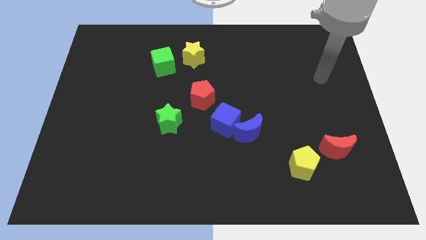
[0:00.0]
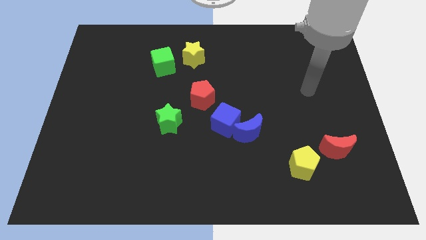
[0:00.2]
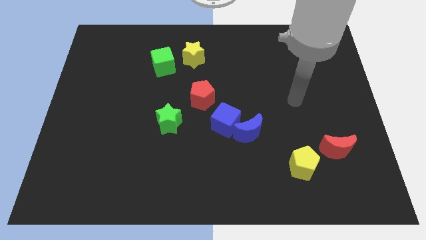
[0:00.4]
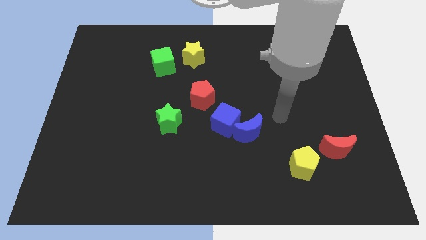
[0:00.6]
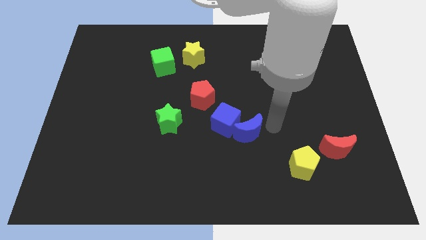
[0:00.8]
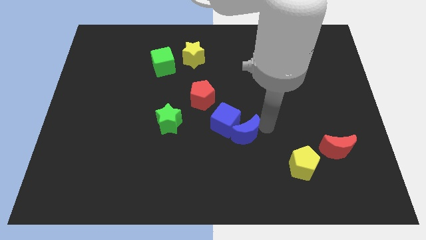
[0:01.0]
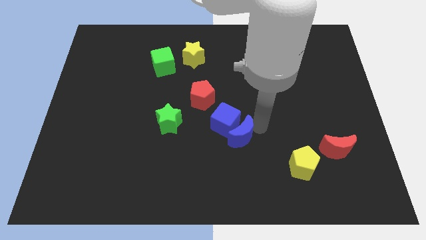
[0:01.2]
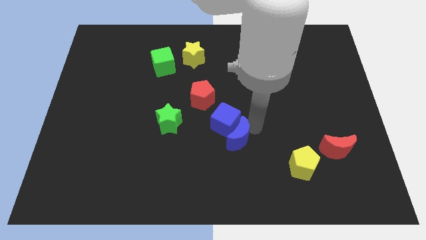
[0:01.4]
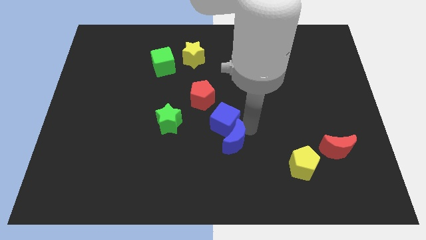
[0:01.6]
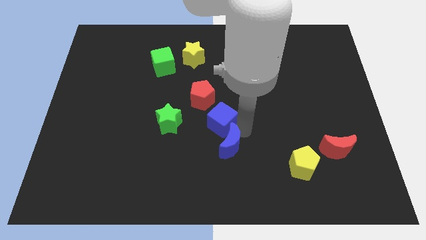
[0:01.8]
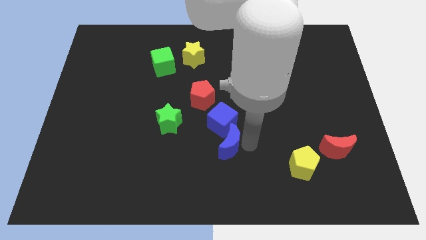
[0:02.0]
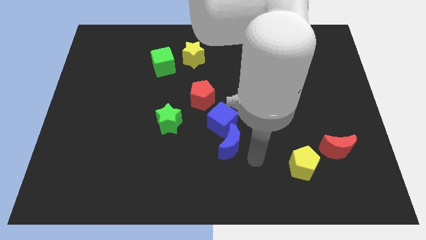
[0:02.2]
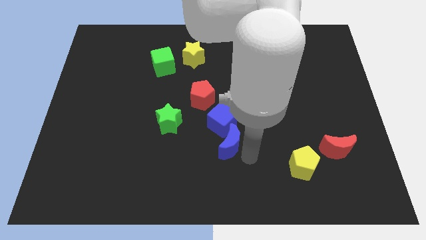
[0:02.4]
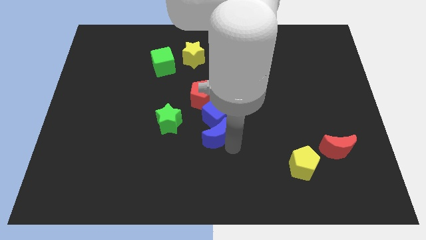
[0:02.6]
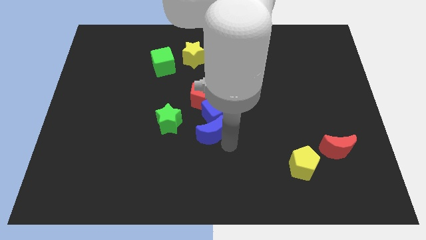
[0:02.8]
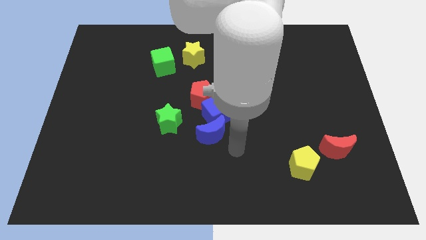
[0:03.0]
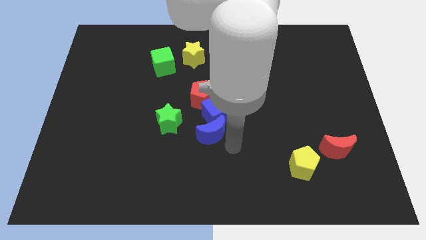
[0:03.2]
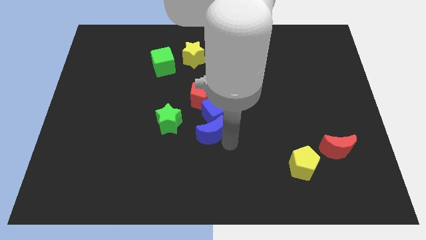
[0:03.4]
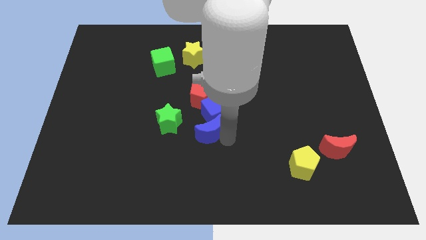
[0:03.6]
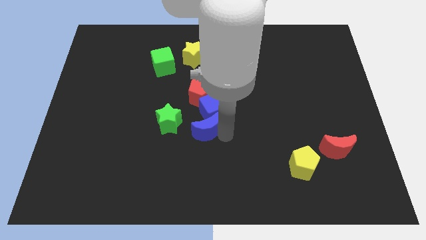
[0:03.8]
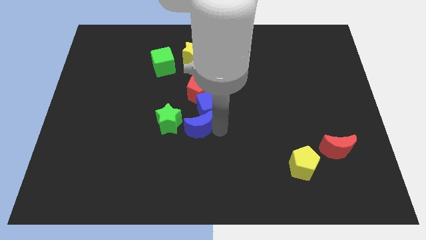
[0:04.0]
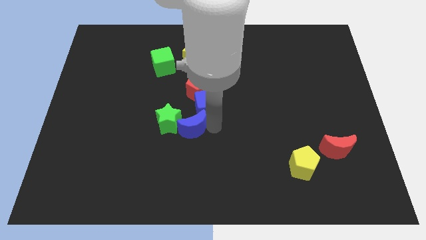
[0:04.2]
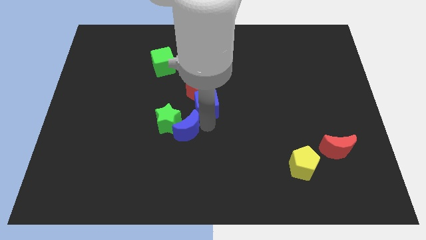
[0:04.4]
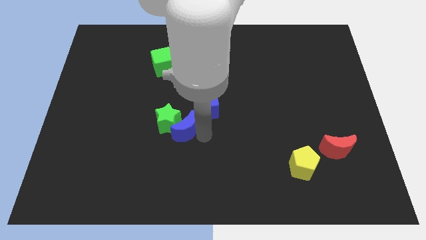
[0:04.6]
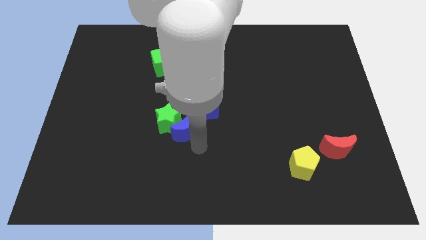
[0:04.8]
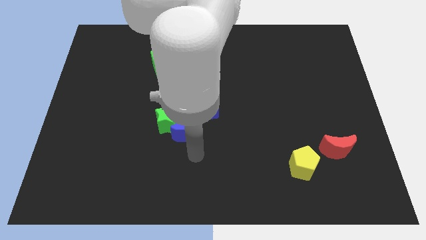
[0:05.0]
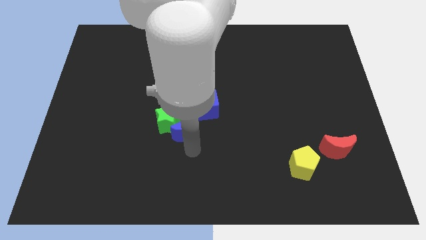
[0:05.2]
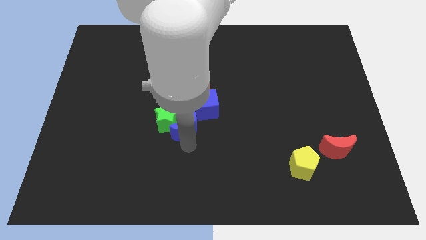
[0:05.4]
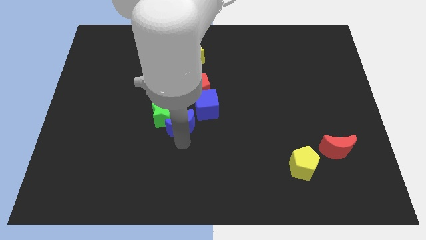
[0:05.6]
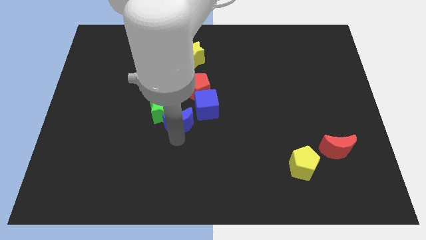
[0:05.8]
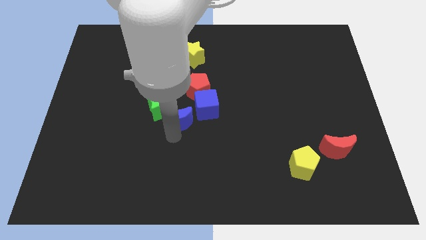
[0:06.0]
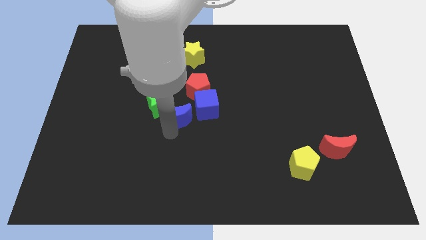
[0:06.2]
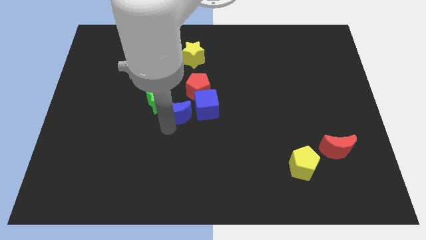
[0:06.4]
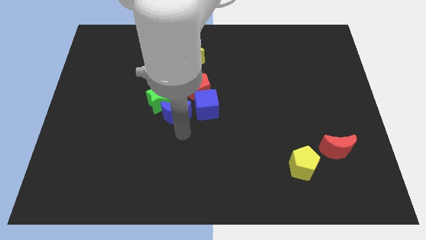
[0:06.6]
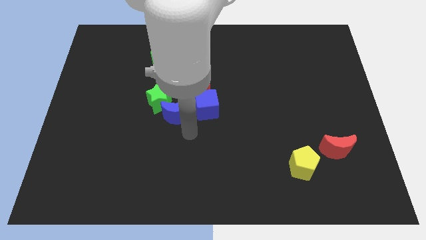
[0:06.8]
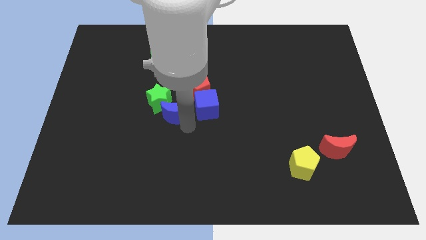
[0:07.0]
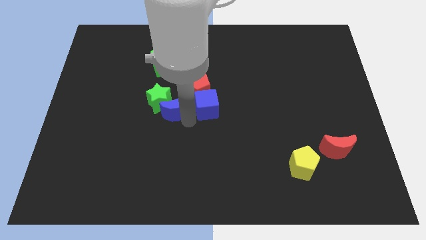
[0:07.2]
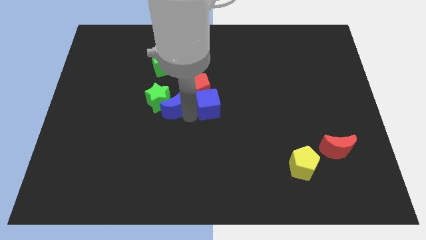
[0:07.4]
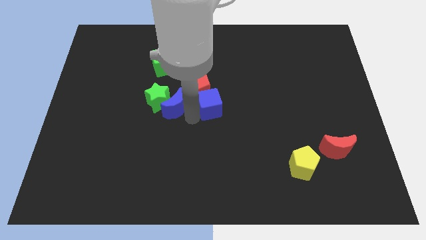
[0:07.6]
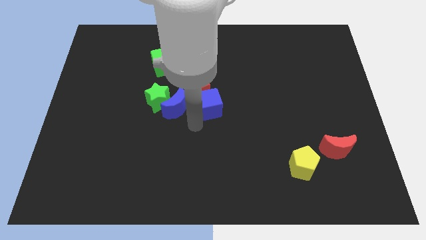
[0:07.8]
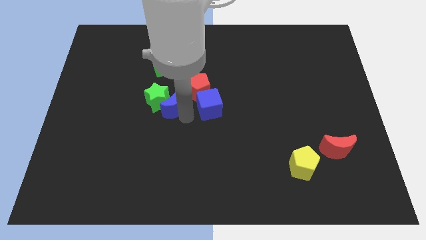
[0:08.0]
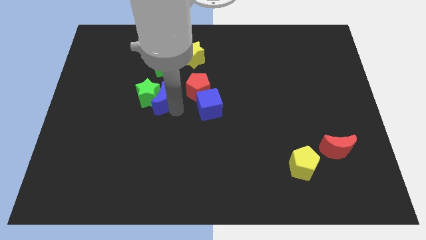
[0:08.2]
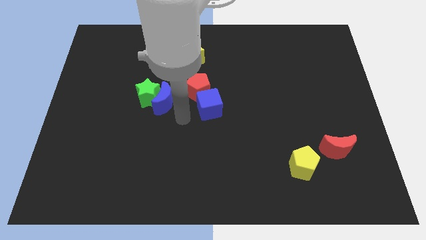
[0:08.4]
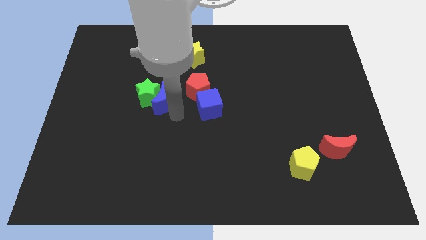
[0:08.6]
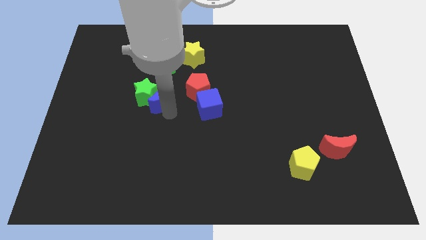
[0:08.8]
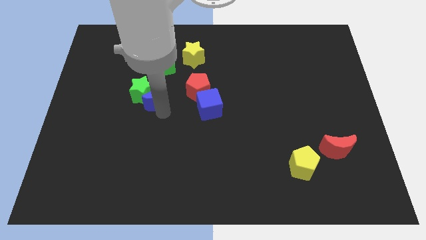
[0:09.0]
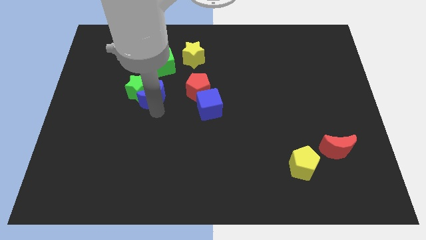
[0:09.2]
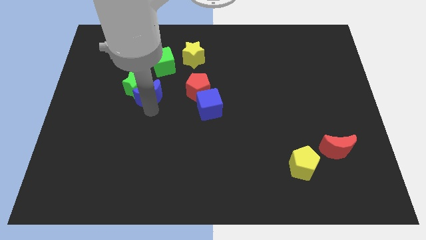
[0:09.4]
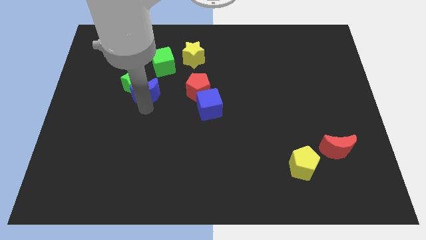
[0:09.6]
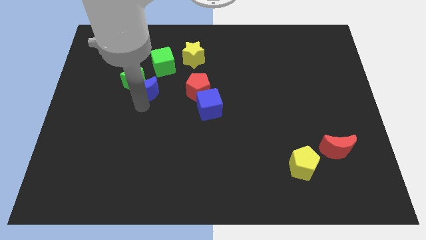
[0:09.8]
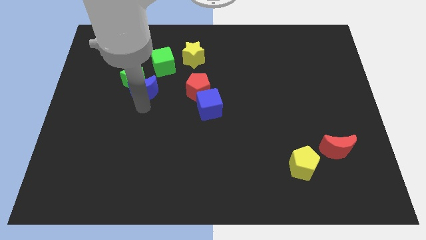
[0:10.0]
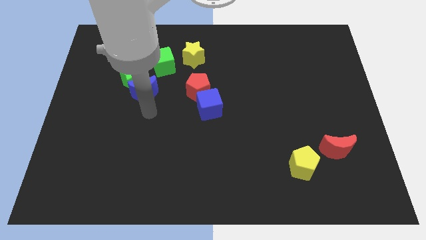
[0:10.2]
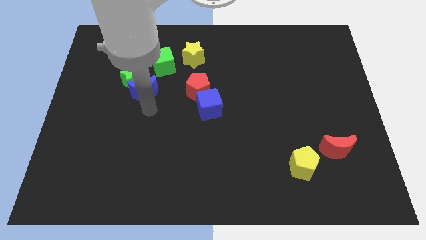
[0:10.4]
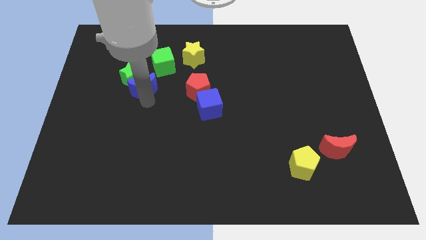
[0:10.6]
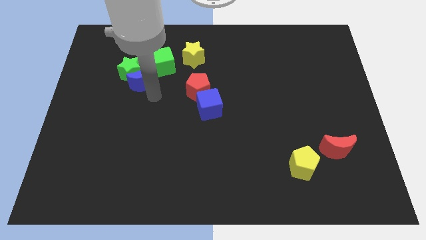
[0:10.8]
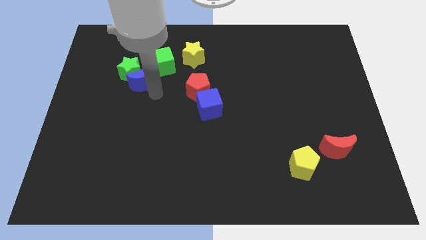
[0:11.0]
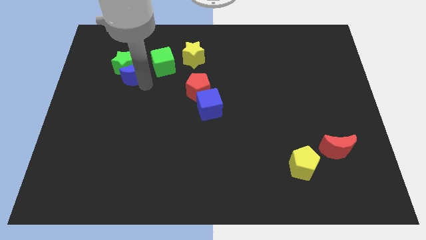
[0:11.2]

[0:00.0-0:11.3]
put the blue moon left of the green cube

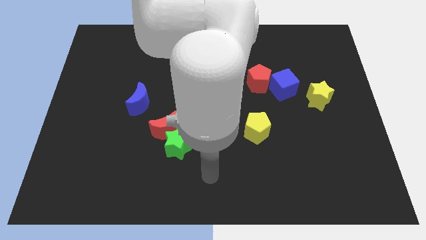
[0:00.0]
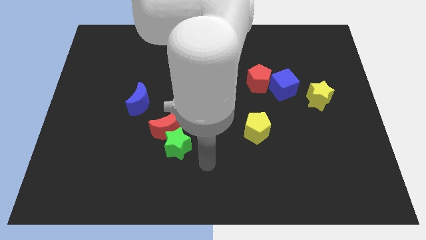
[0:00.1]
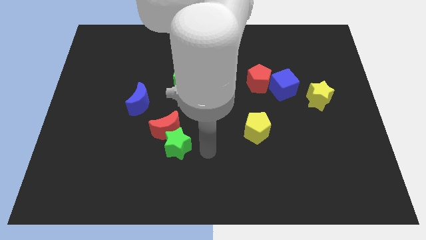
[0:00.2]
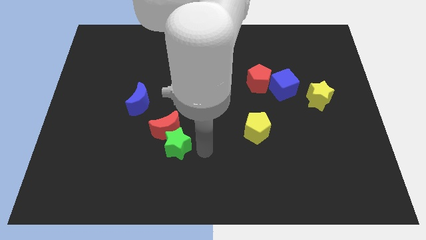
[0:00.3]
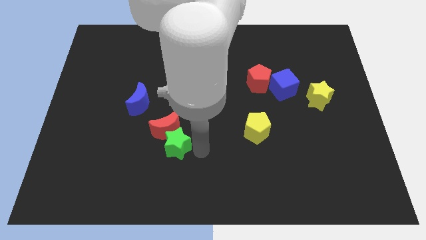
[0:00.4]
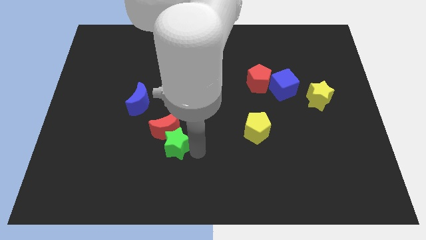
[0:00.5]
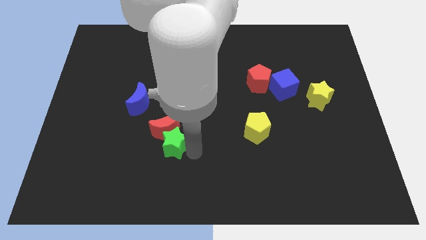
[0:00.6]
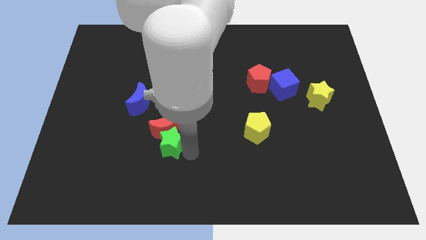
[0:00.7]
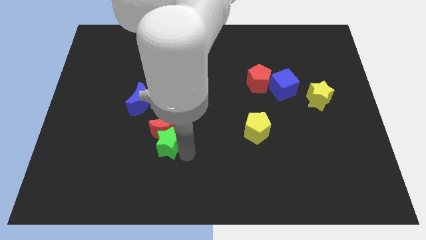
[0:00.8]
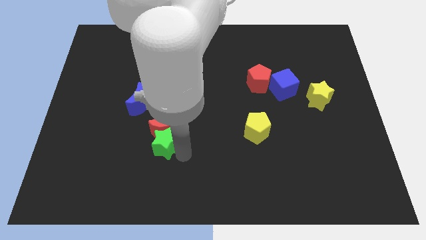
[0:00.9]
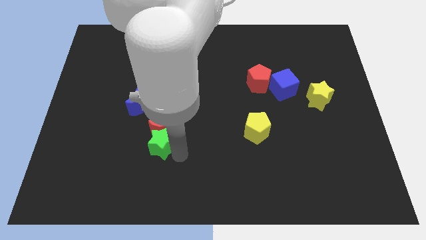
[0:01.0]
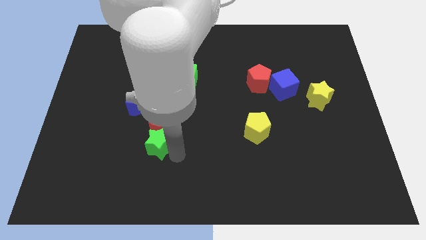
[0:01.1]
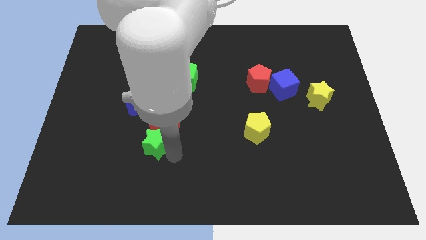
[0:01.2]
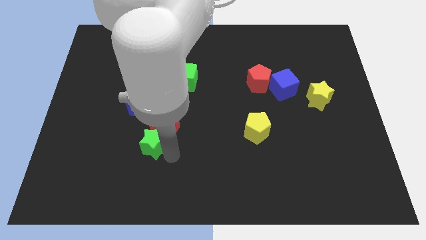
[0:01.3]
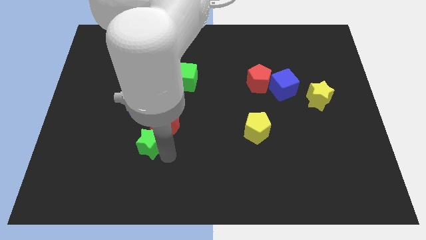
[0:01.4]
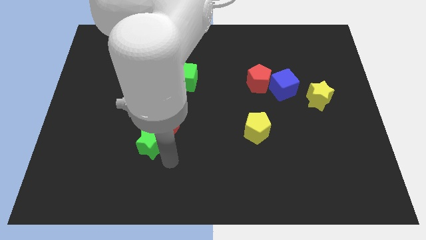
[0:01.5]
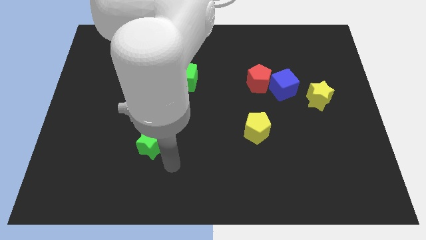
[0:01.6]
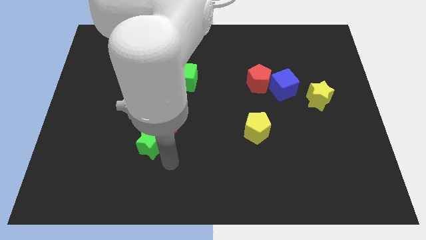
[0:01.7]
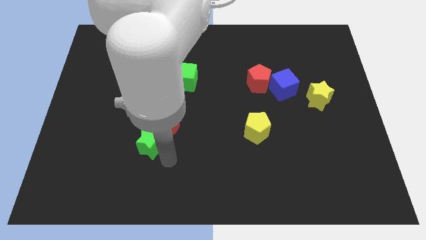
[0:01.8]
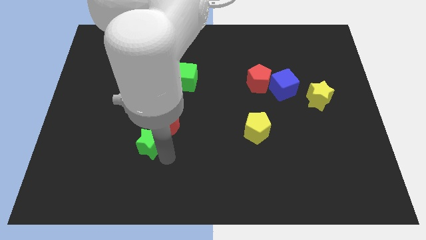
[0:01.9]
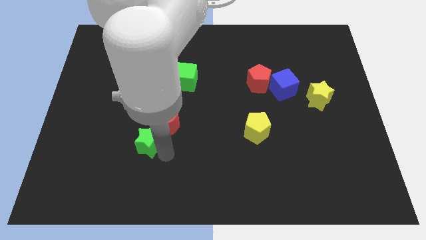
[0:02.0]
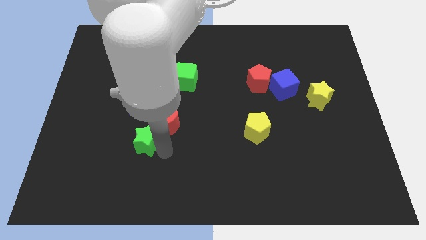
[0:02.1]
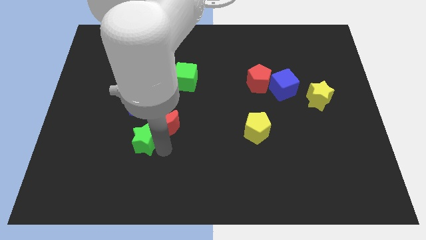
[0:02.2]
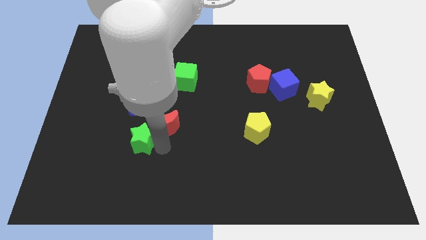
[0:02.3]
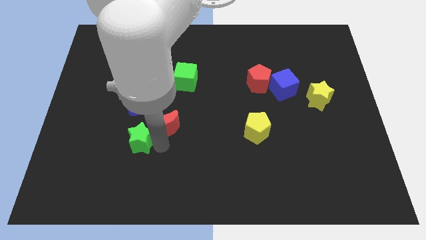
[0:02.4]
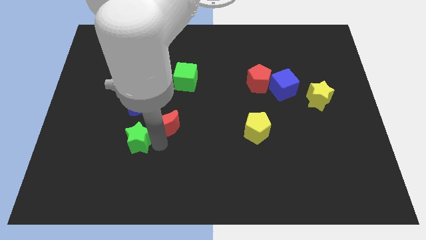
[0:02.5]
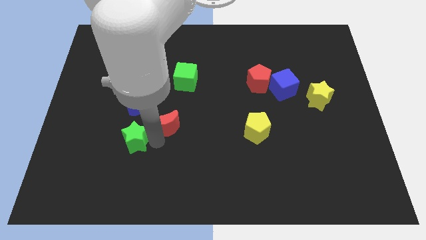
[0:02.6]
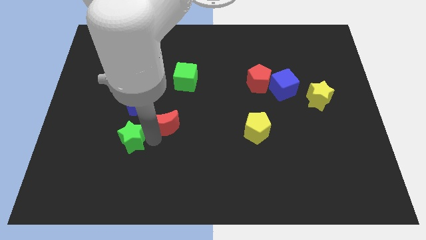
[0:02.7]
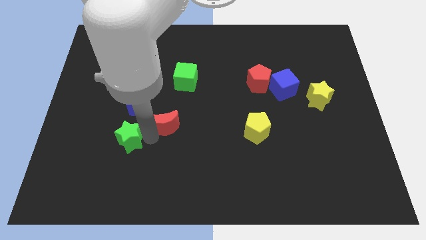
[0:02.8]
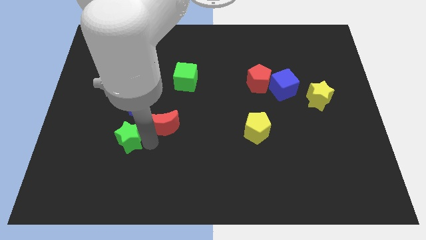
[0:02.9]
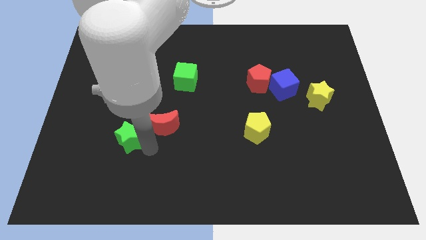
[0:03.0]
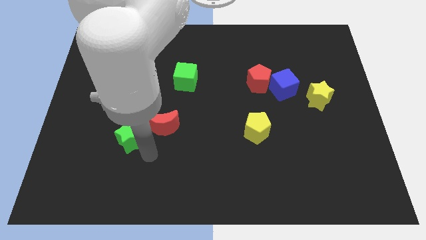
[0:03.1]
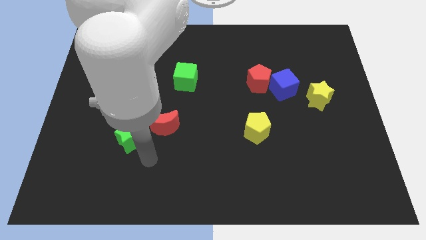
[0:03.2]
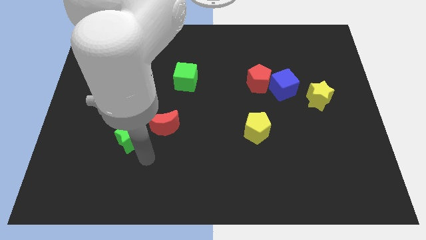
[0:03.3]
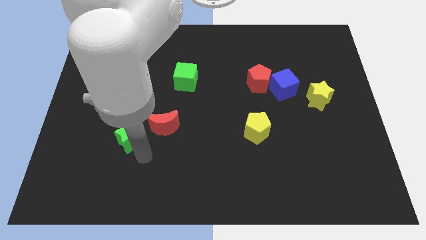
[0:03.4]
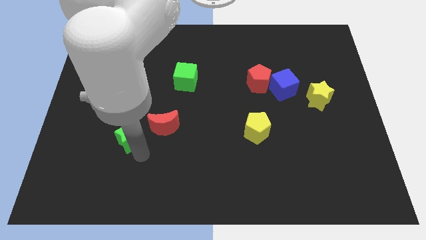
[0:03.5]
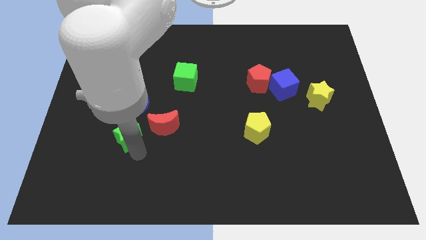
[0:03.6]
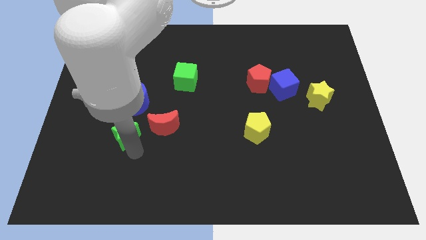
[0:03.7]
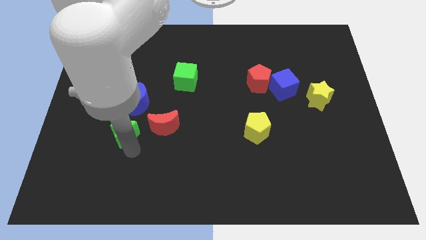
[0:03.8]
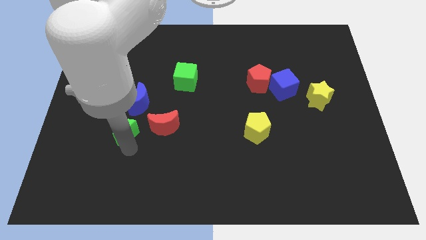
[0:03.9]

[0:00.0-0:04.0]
push the green star to the bottom left of the blue moon
